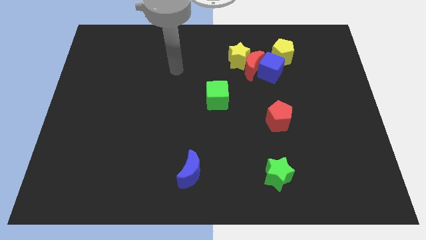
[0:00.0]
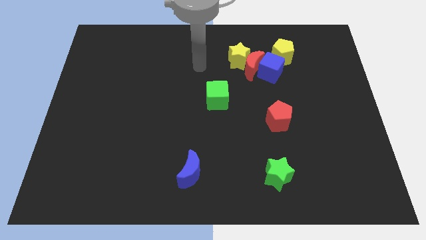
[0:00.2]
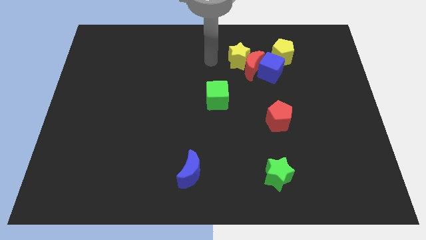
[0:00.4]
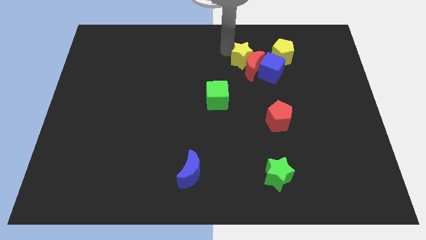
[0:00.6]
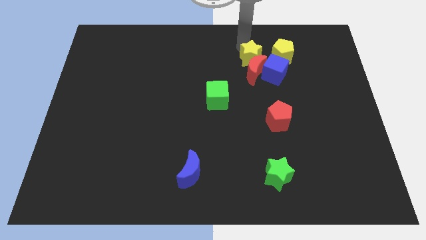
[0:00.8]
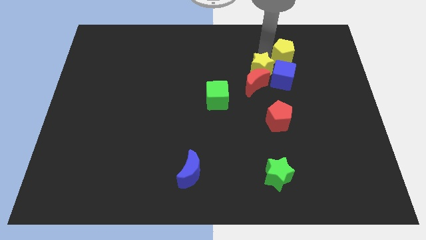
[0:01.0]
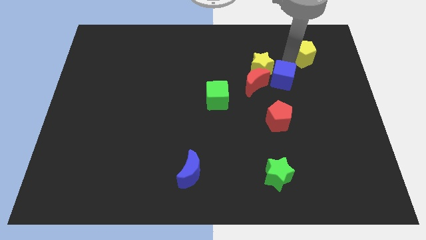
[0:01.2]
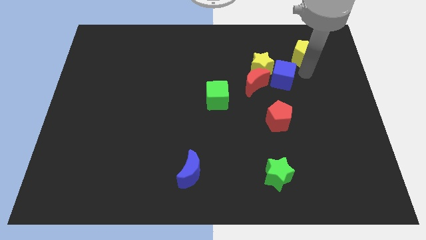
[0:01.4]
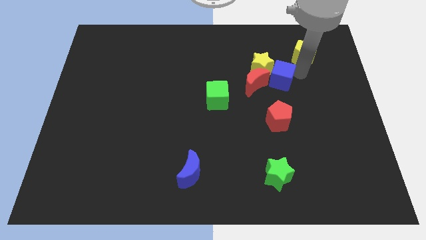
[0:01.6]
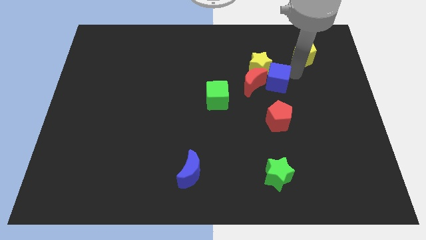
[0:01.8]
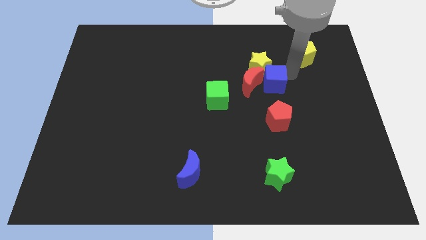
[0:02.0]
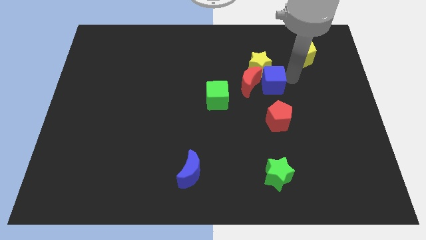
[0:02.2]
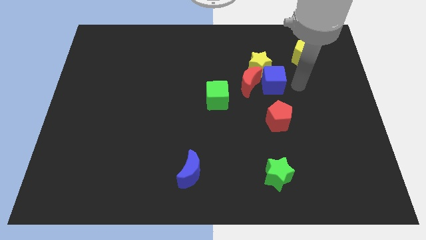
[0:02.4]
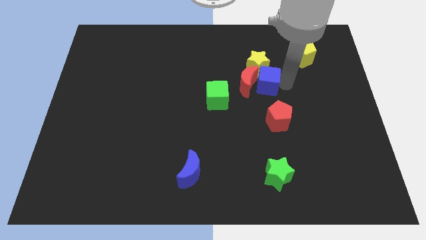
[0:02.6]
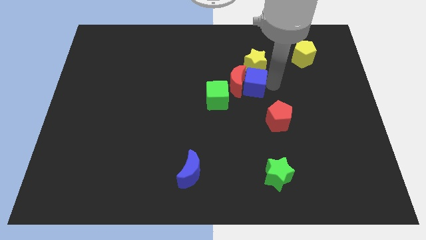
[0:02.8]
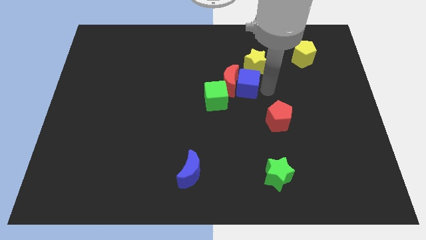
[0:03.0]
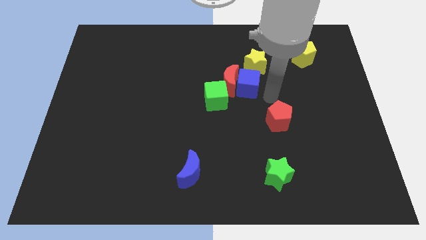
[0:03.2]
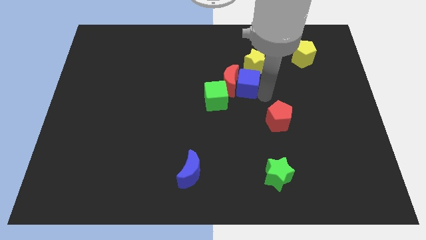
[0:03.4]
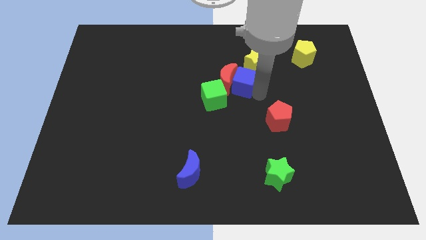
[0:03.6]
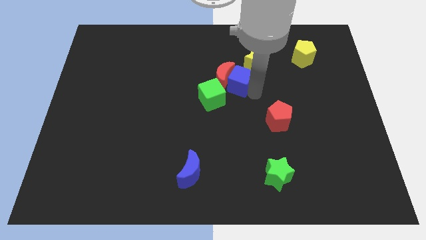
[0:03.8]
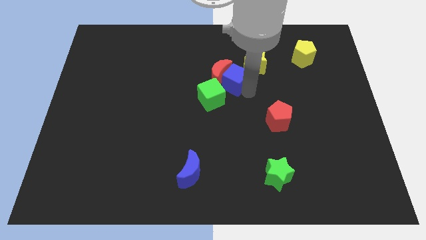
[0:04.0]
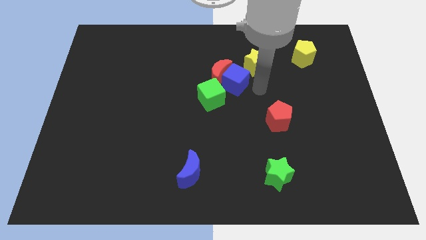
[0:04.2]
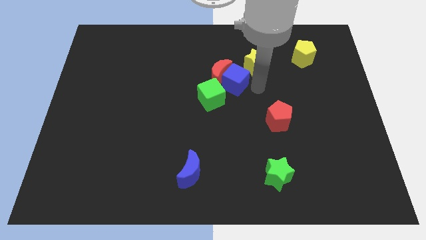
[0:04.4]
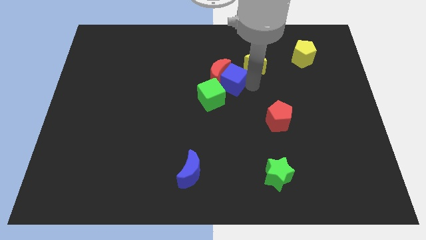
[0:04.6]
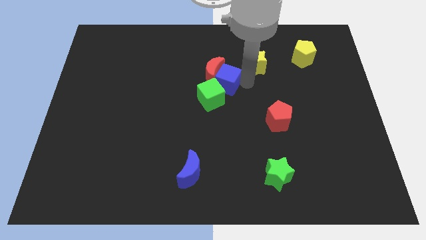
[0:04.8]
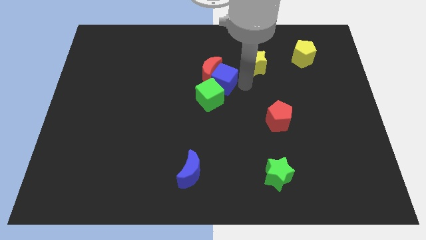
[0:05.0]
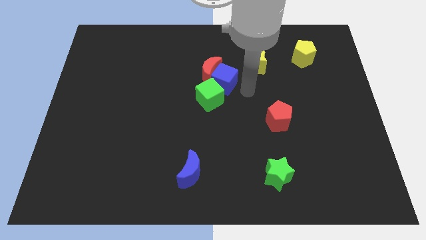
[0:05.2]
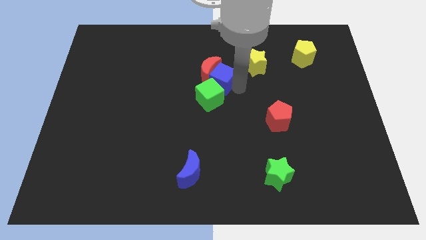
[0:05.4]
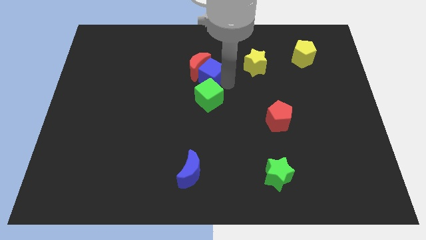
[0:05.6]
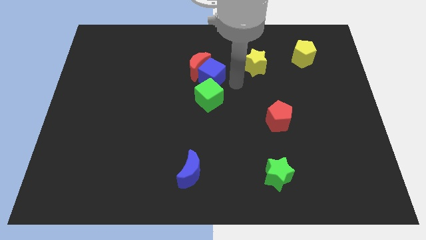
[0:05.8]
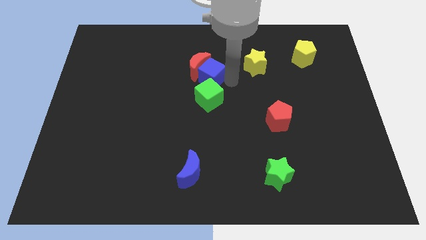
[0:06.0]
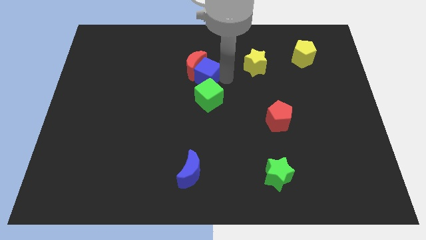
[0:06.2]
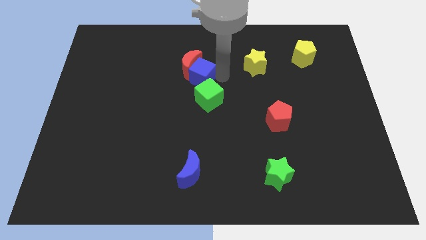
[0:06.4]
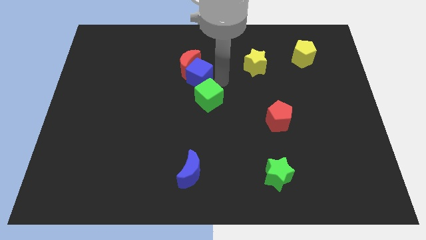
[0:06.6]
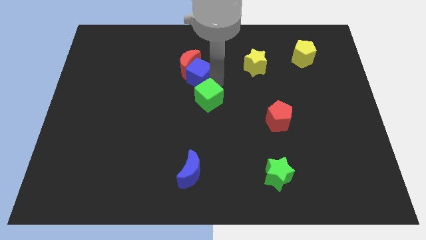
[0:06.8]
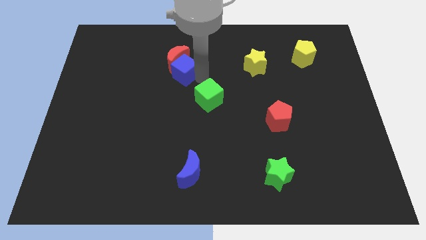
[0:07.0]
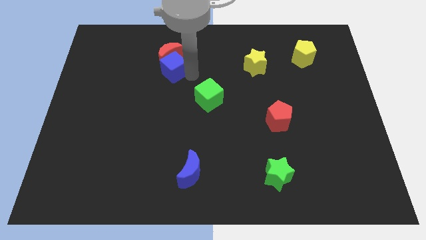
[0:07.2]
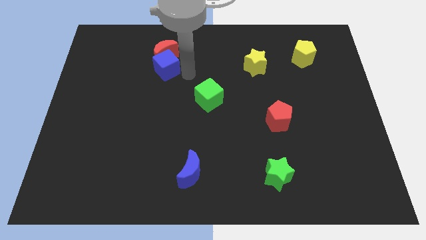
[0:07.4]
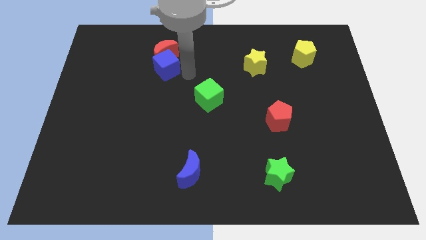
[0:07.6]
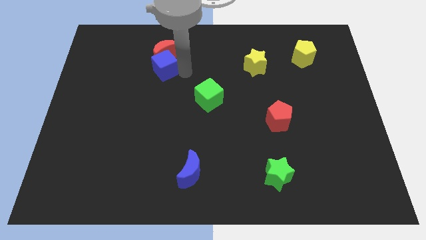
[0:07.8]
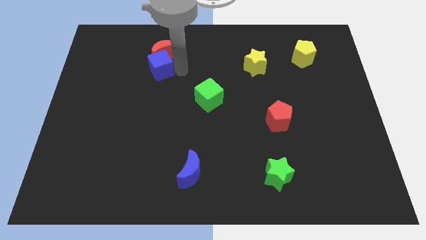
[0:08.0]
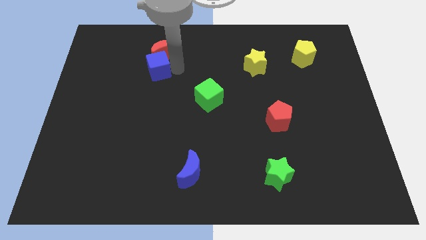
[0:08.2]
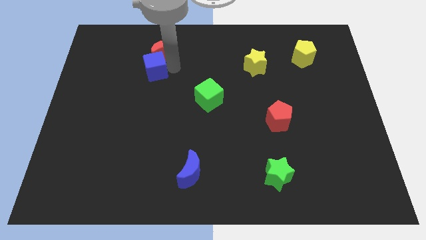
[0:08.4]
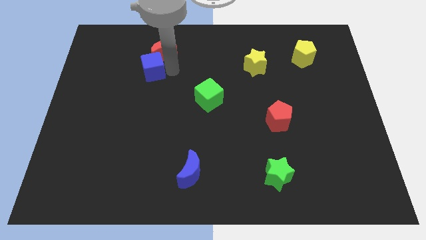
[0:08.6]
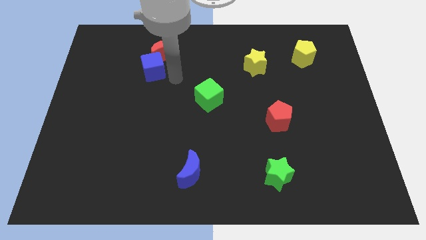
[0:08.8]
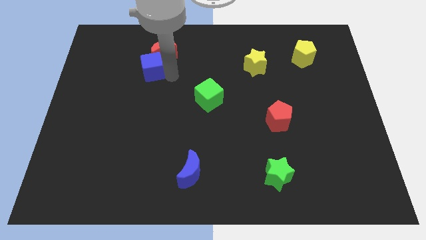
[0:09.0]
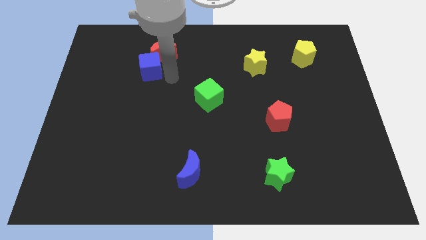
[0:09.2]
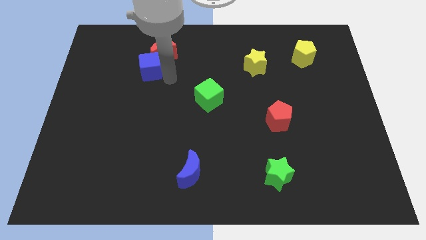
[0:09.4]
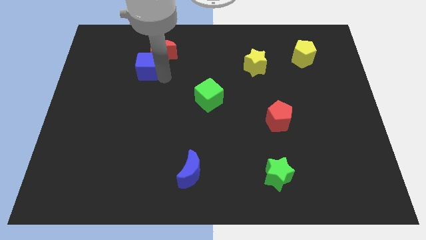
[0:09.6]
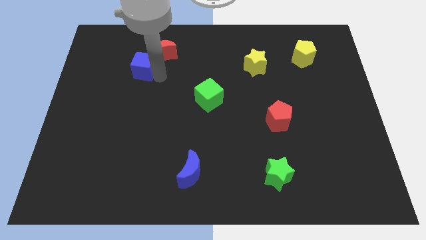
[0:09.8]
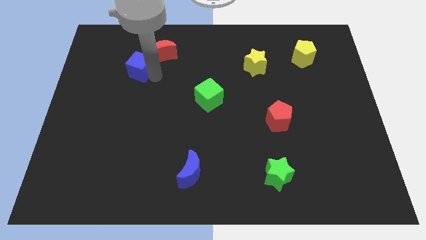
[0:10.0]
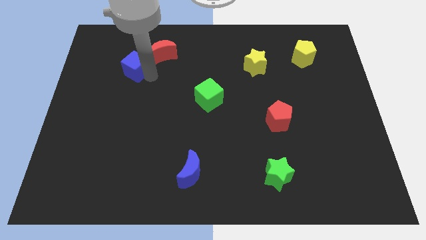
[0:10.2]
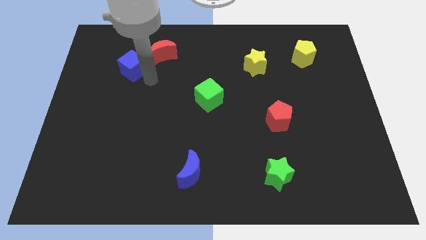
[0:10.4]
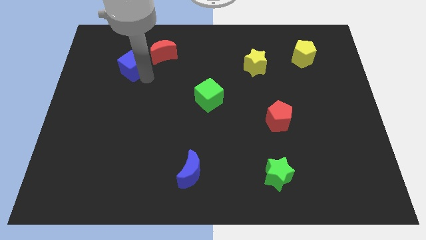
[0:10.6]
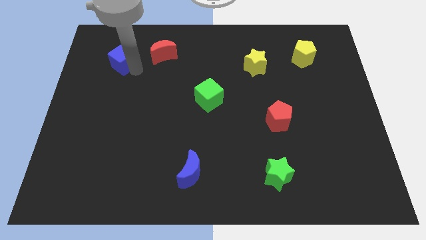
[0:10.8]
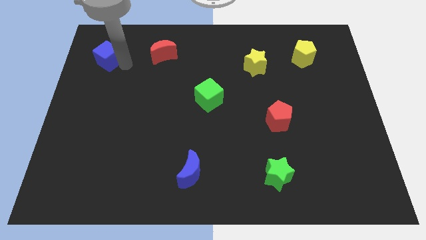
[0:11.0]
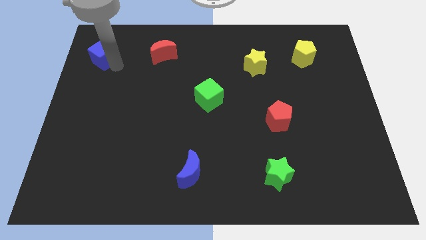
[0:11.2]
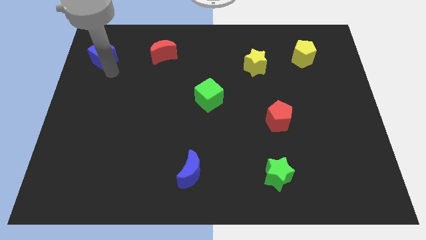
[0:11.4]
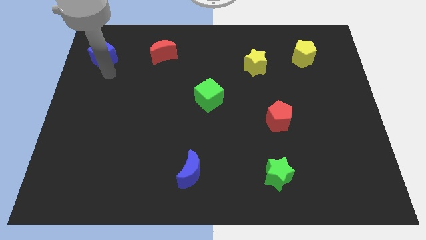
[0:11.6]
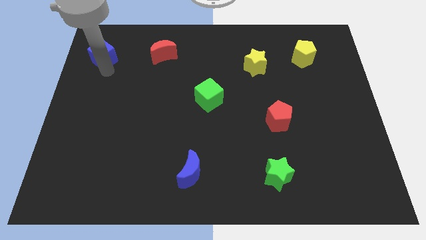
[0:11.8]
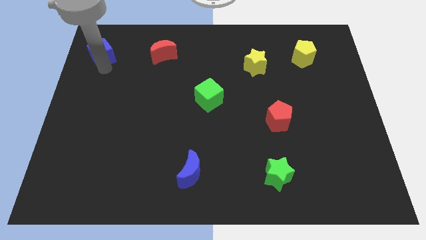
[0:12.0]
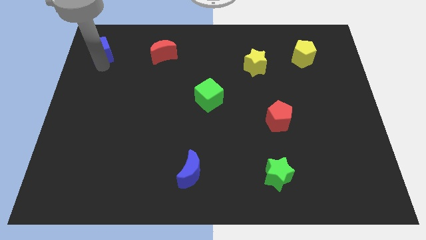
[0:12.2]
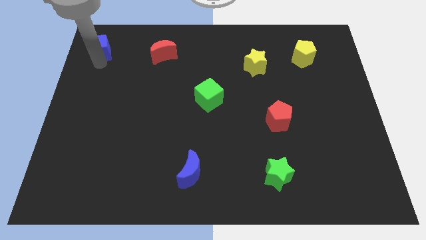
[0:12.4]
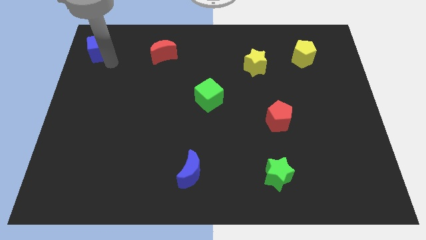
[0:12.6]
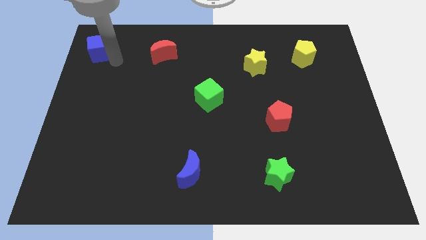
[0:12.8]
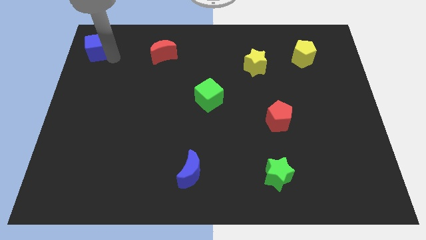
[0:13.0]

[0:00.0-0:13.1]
put the blue cube to the upper left corner

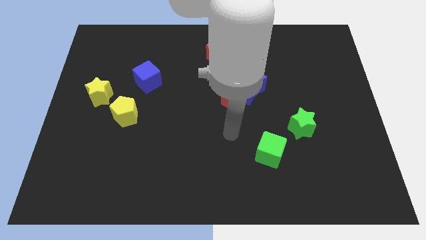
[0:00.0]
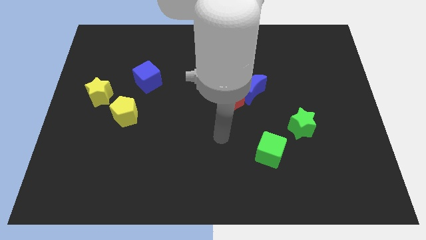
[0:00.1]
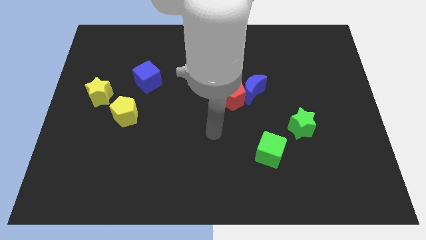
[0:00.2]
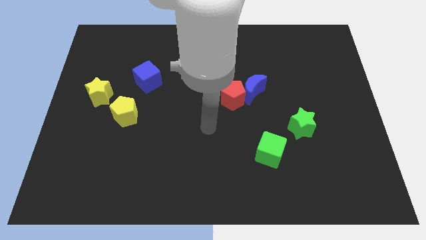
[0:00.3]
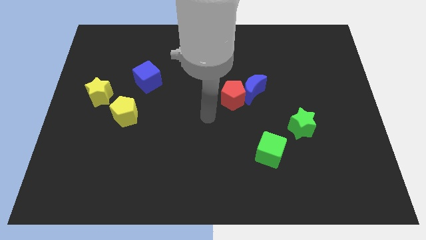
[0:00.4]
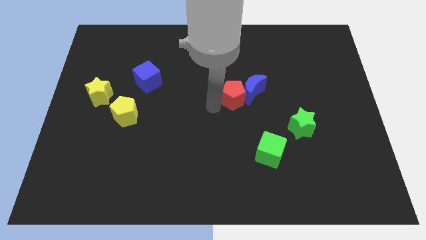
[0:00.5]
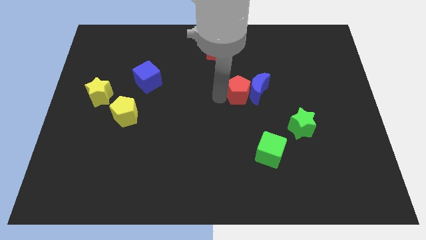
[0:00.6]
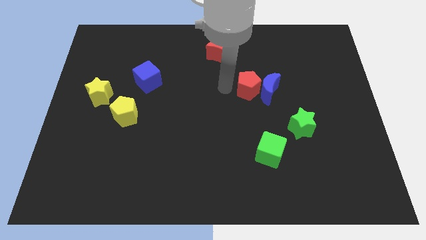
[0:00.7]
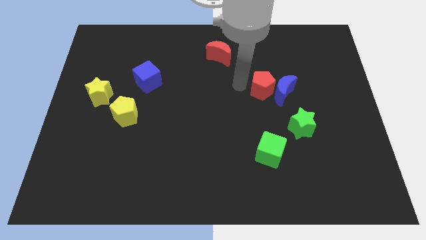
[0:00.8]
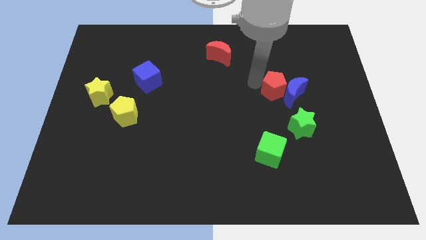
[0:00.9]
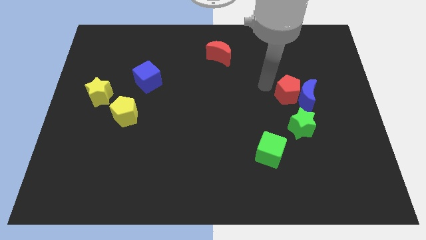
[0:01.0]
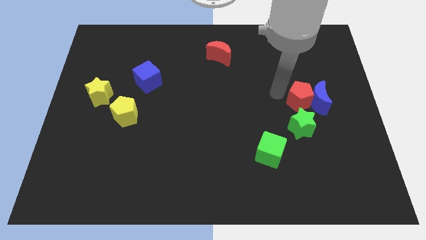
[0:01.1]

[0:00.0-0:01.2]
slide the blue moon to the center right
